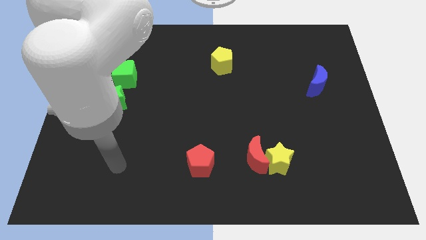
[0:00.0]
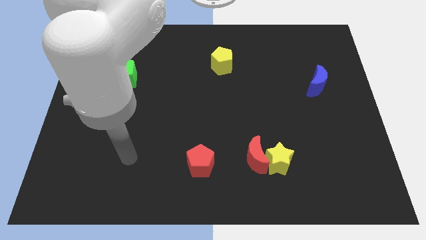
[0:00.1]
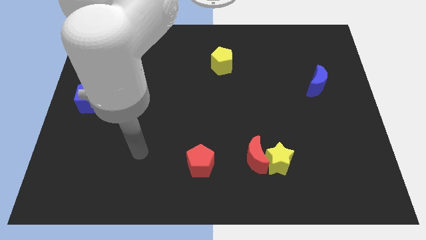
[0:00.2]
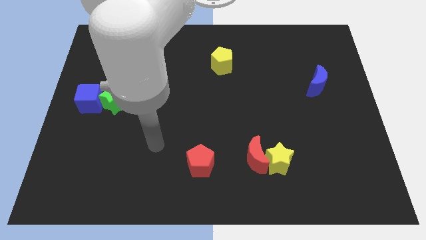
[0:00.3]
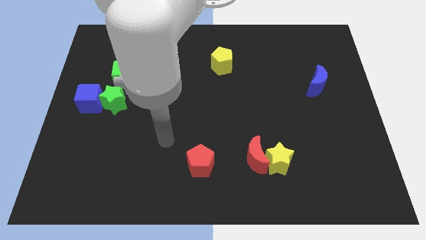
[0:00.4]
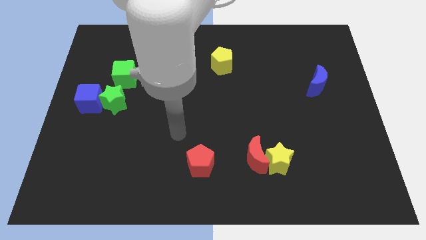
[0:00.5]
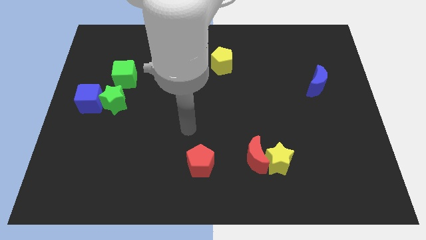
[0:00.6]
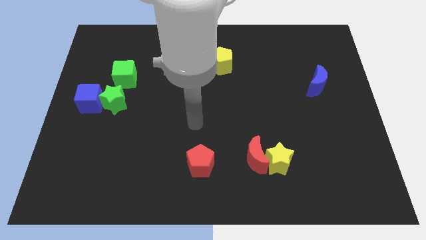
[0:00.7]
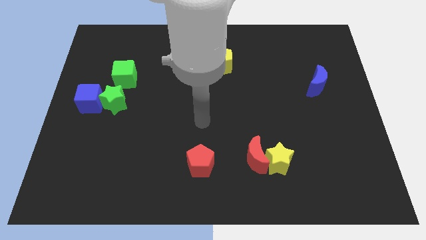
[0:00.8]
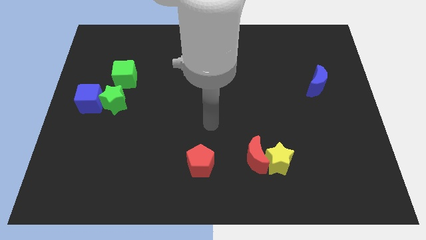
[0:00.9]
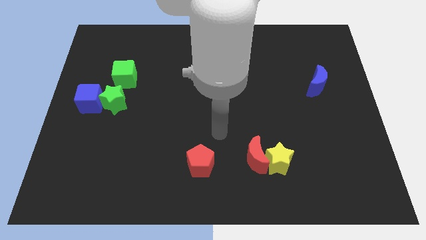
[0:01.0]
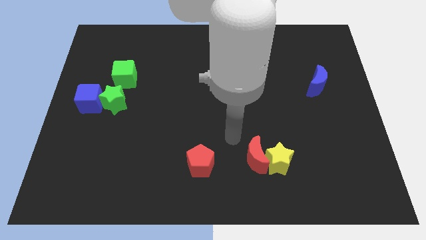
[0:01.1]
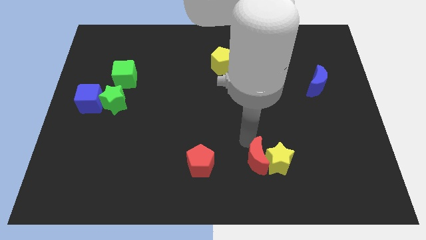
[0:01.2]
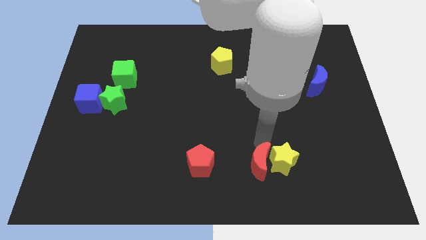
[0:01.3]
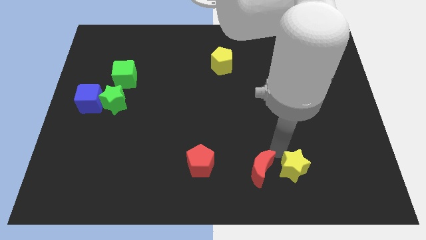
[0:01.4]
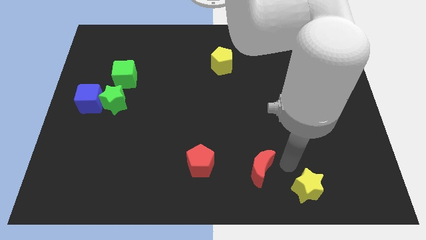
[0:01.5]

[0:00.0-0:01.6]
pull the red moon apart from the yellow star

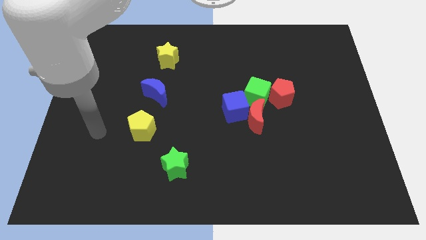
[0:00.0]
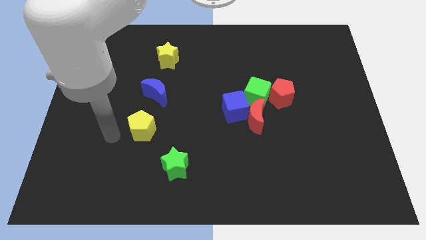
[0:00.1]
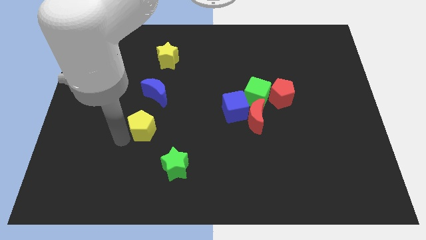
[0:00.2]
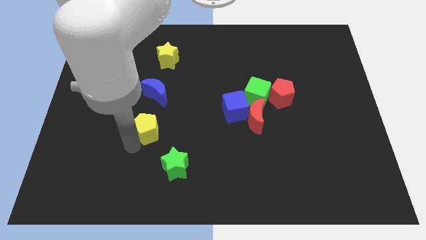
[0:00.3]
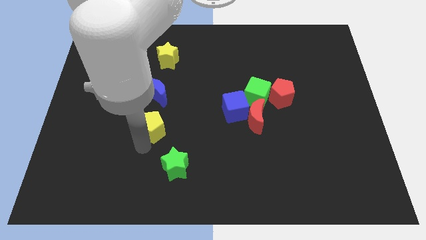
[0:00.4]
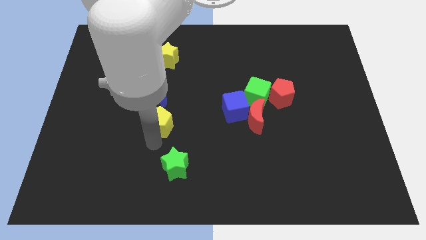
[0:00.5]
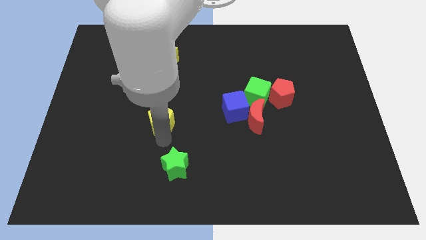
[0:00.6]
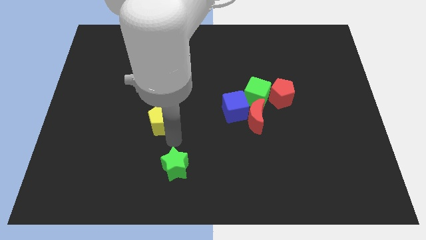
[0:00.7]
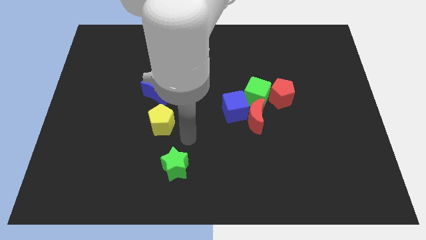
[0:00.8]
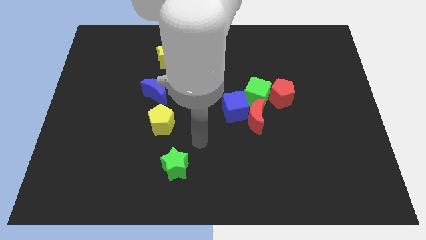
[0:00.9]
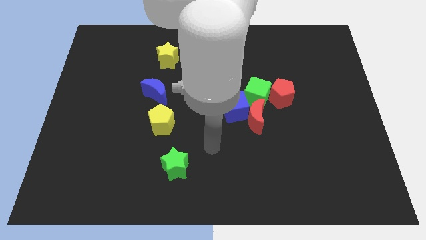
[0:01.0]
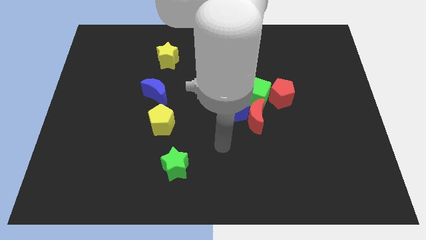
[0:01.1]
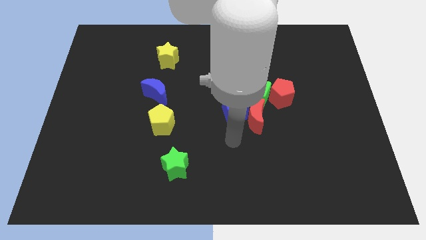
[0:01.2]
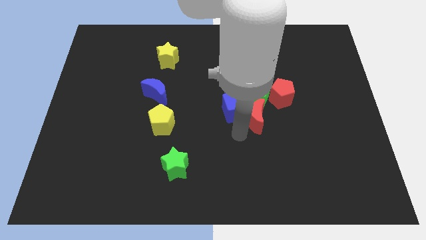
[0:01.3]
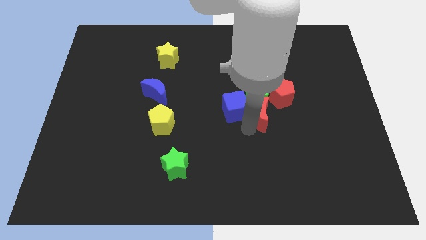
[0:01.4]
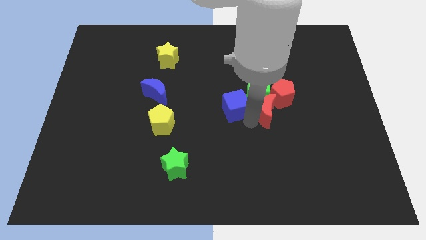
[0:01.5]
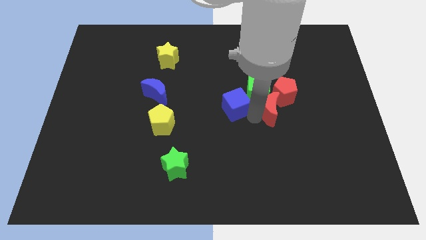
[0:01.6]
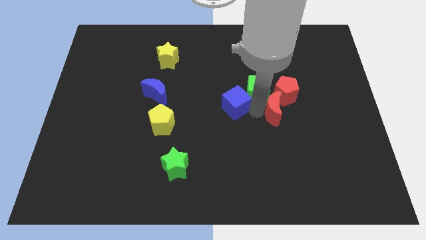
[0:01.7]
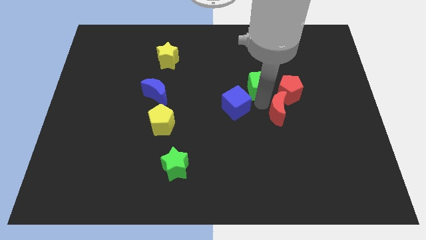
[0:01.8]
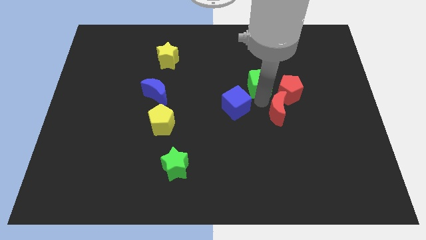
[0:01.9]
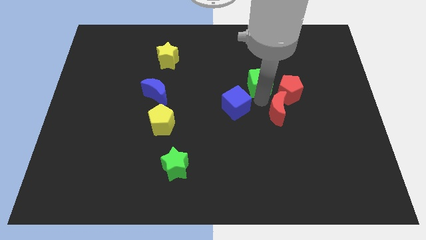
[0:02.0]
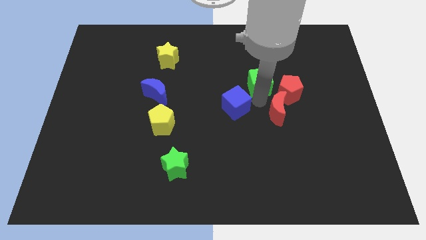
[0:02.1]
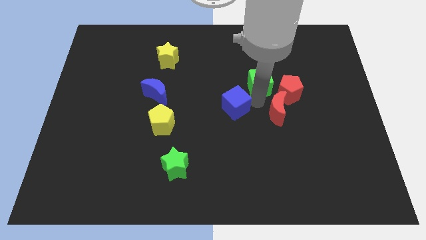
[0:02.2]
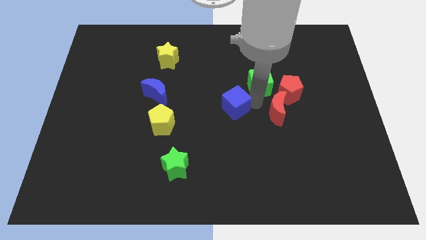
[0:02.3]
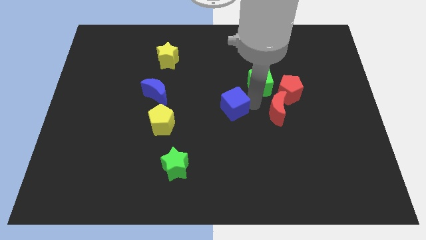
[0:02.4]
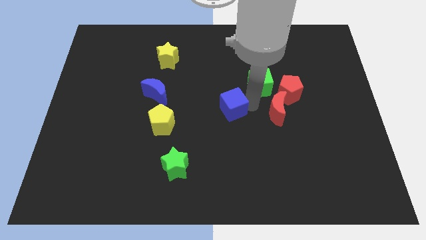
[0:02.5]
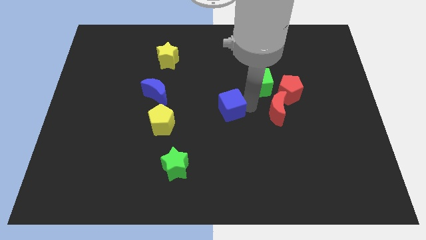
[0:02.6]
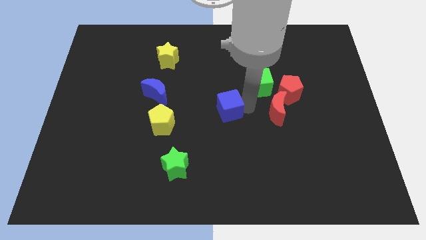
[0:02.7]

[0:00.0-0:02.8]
separate the blue cube from the red moon and green cube

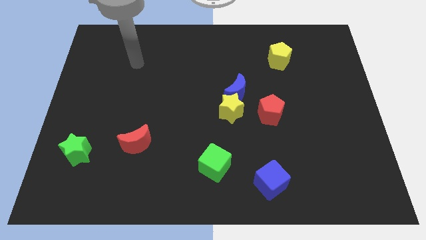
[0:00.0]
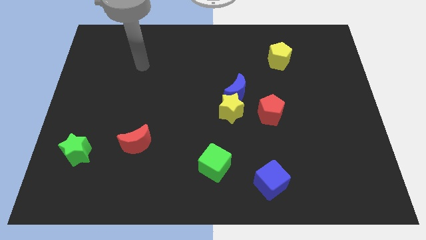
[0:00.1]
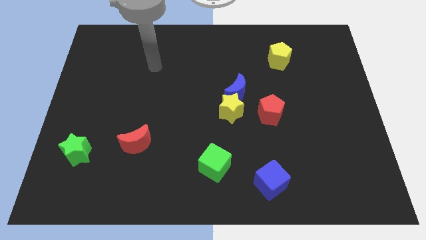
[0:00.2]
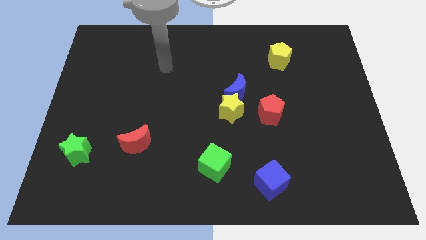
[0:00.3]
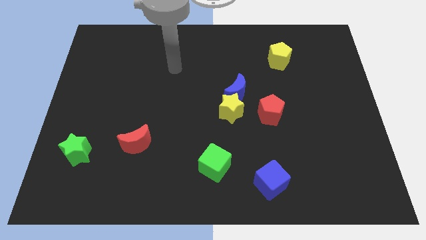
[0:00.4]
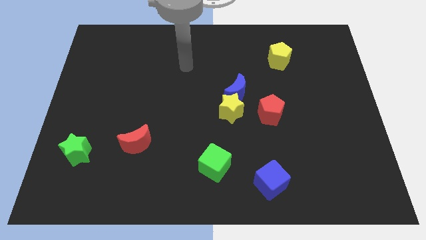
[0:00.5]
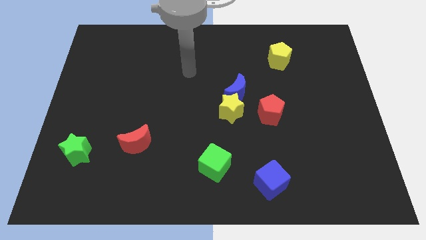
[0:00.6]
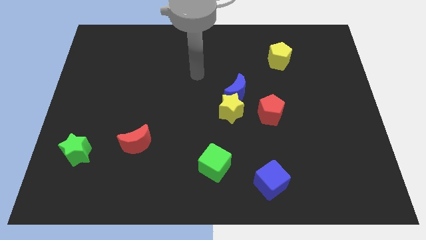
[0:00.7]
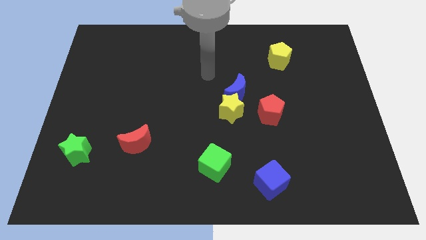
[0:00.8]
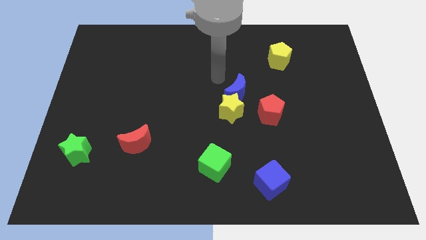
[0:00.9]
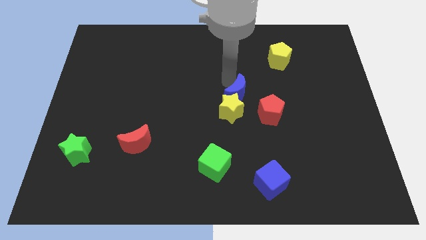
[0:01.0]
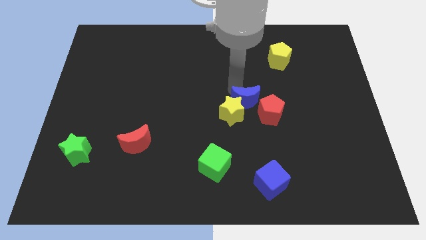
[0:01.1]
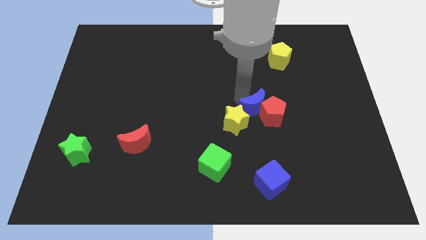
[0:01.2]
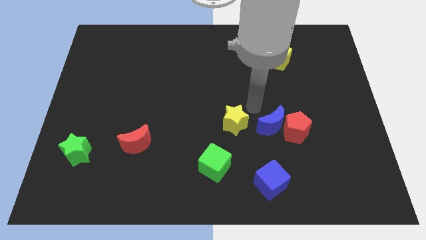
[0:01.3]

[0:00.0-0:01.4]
pull the yellow star apart from the blue moon and red pentagon

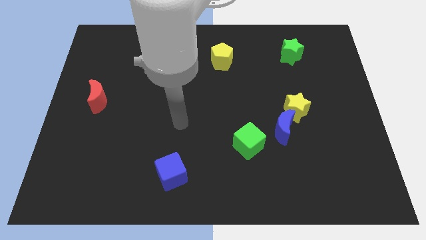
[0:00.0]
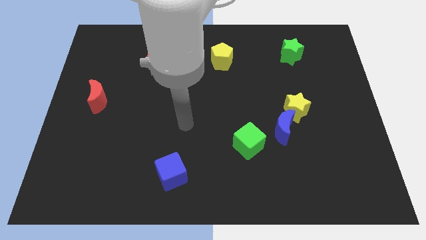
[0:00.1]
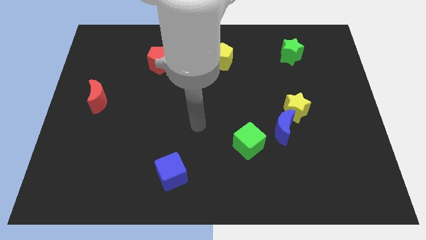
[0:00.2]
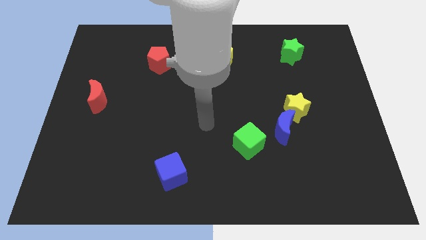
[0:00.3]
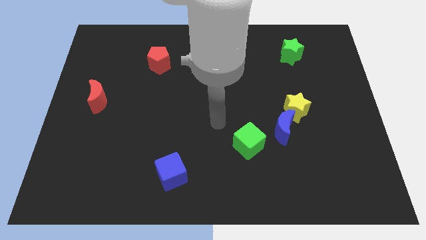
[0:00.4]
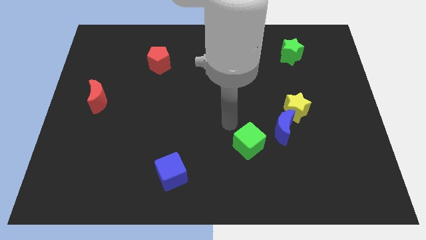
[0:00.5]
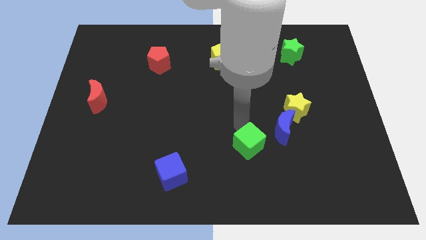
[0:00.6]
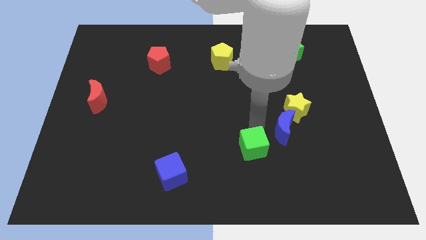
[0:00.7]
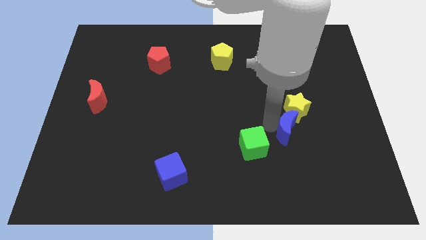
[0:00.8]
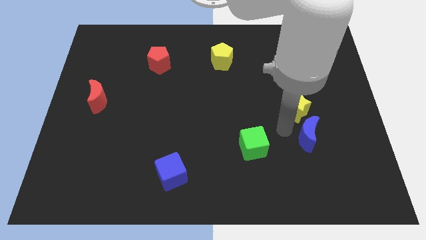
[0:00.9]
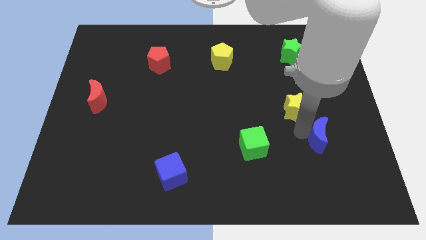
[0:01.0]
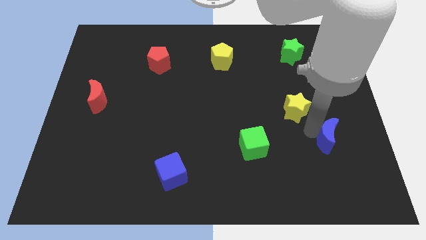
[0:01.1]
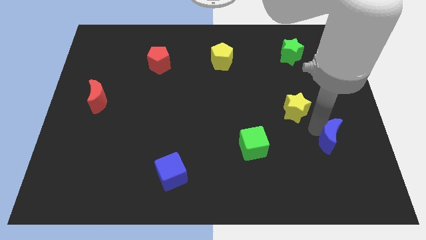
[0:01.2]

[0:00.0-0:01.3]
separate the yellow star from the blue moon

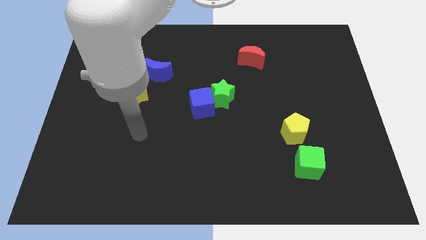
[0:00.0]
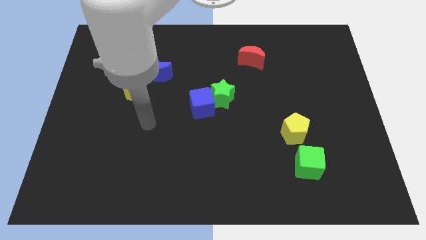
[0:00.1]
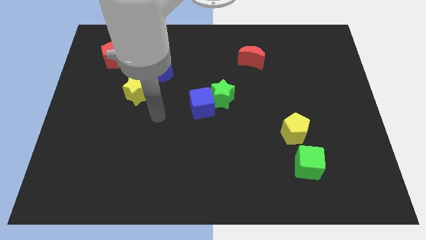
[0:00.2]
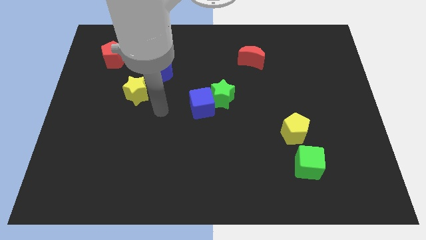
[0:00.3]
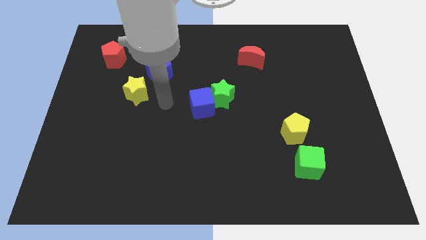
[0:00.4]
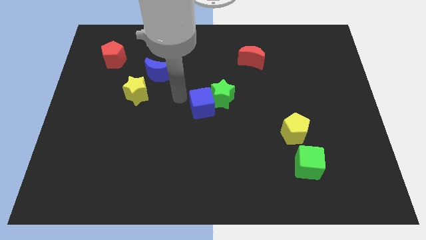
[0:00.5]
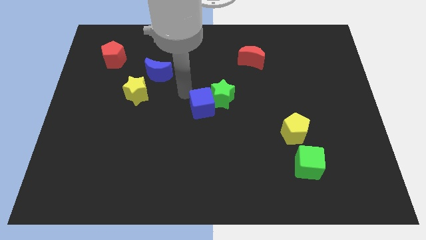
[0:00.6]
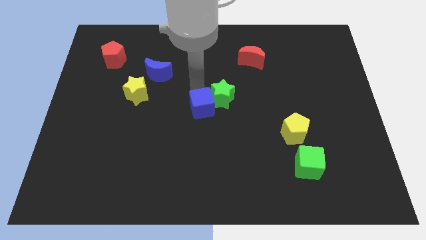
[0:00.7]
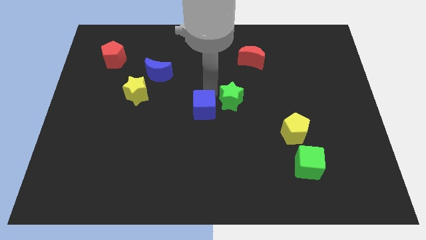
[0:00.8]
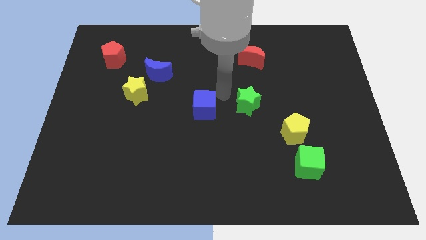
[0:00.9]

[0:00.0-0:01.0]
pull the blue cube apart from the green star

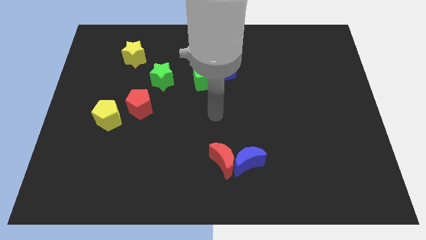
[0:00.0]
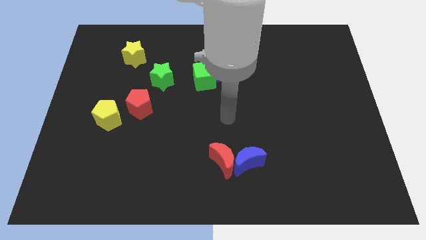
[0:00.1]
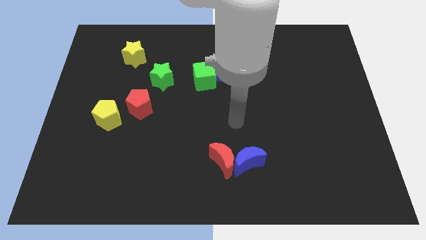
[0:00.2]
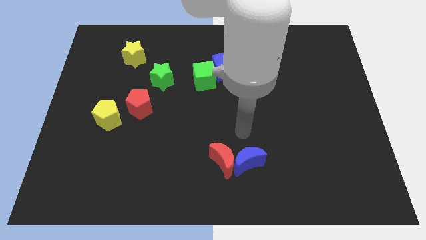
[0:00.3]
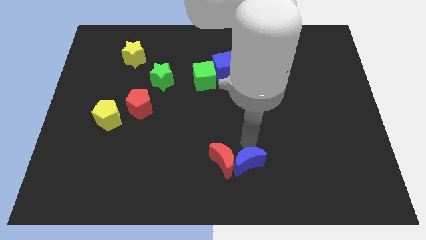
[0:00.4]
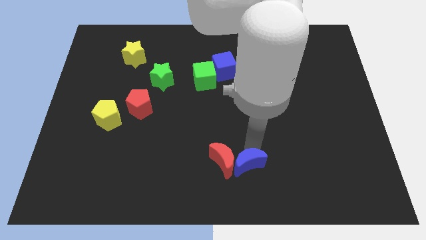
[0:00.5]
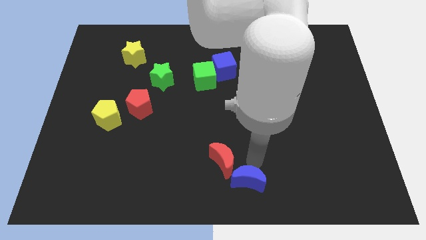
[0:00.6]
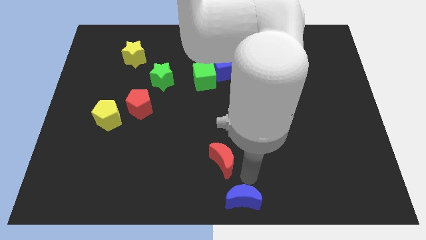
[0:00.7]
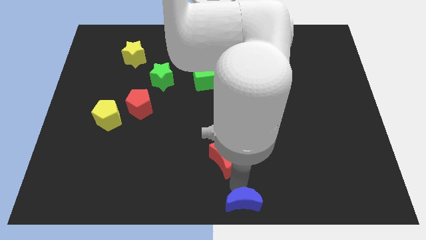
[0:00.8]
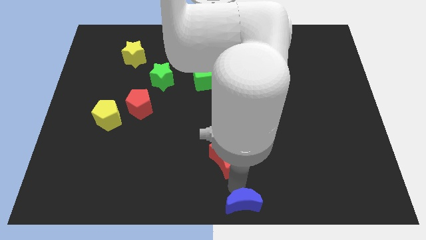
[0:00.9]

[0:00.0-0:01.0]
move the red moon away from the blue moon

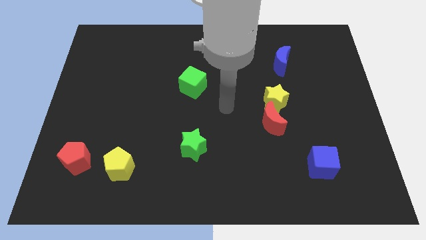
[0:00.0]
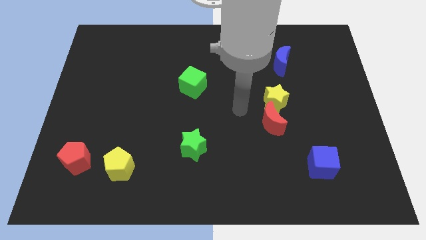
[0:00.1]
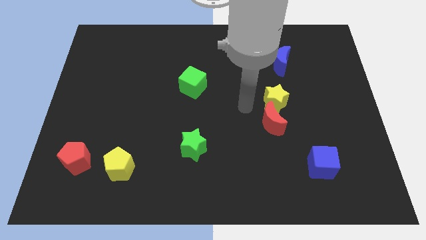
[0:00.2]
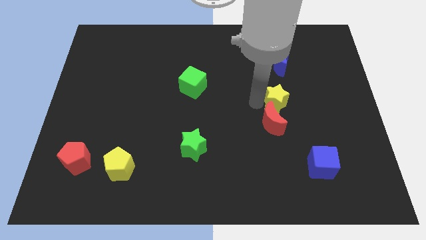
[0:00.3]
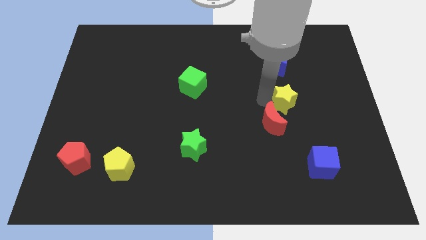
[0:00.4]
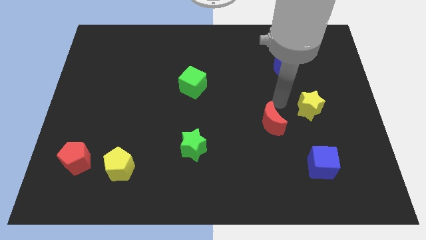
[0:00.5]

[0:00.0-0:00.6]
separate the red moon from the yellow star
